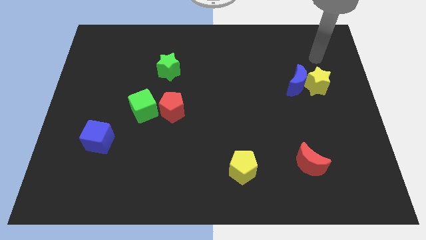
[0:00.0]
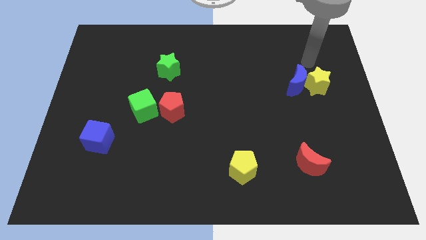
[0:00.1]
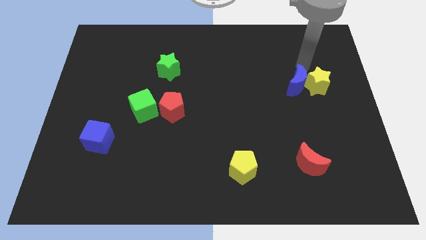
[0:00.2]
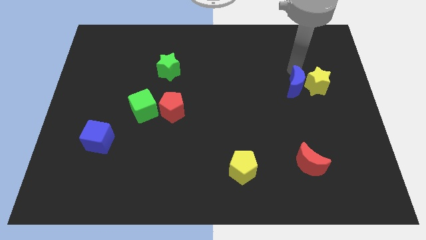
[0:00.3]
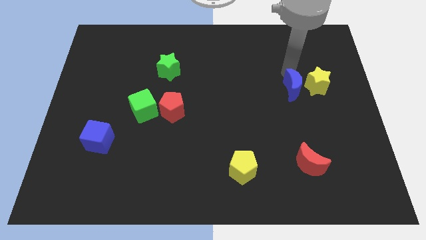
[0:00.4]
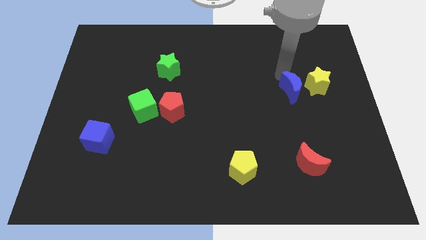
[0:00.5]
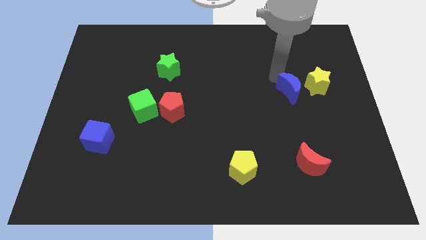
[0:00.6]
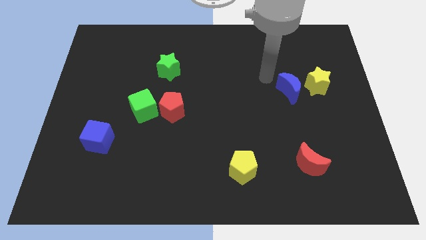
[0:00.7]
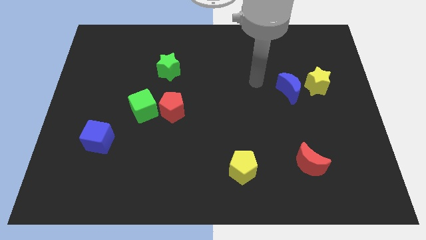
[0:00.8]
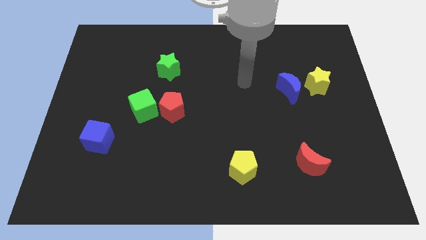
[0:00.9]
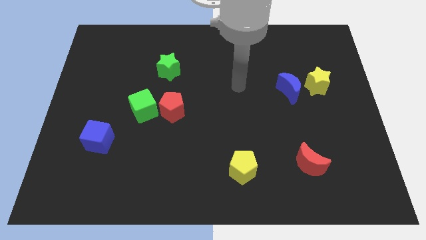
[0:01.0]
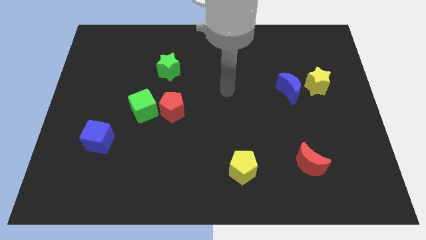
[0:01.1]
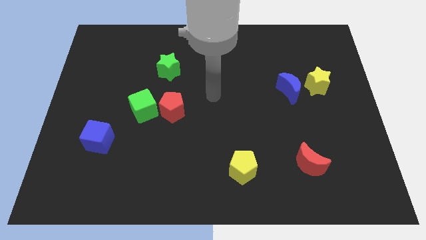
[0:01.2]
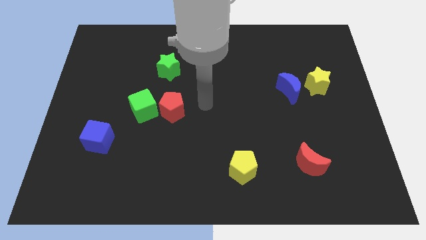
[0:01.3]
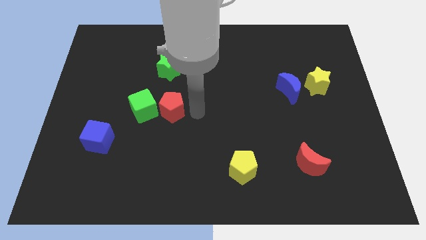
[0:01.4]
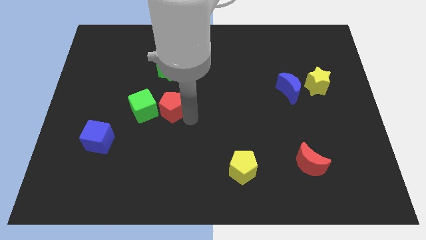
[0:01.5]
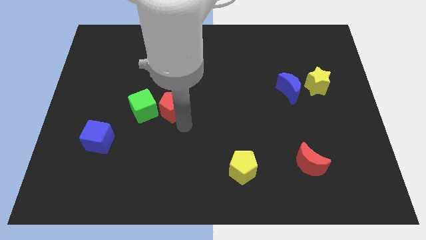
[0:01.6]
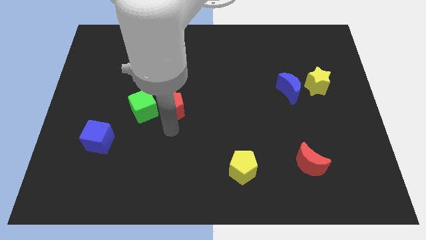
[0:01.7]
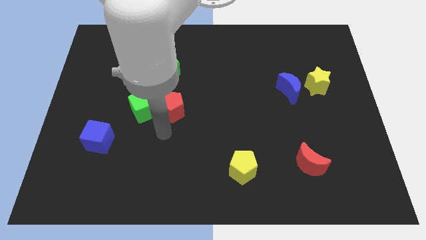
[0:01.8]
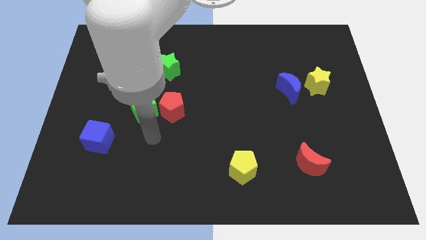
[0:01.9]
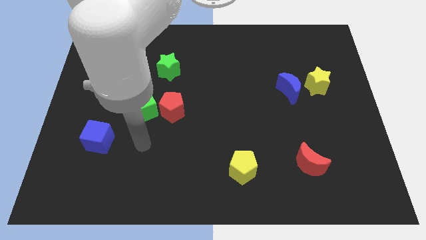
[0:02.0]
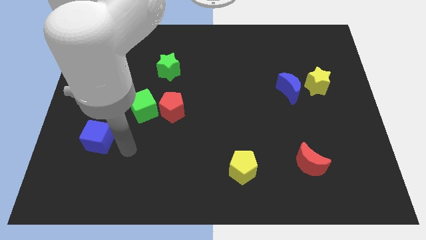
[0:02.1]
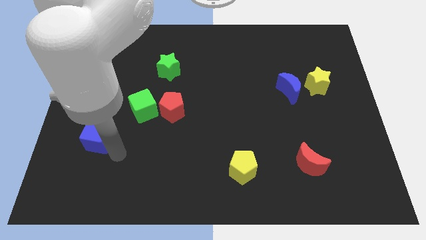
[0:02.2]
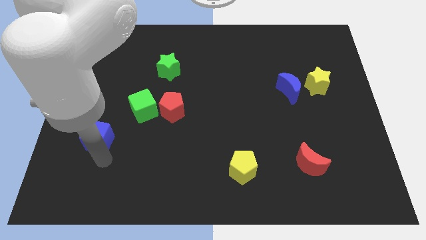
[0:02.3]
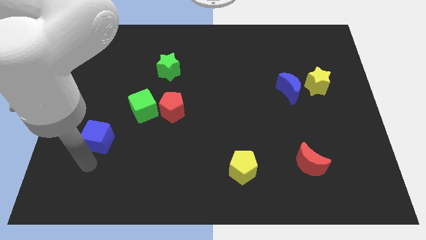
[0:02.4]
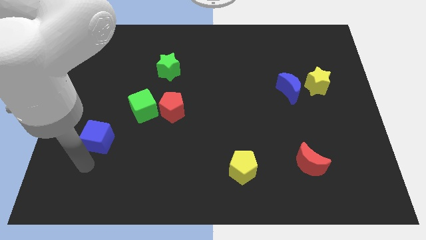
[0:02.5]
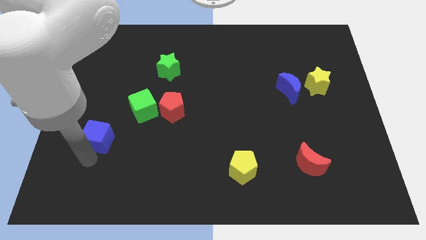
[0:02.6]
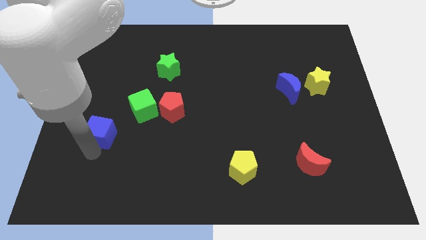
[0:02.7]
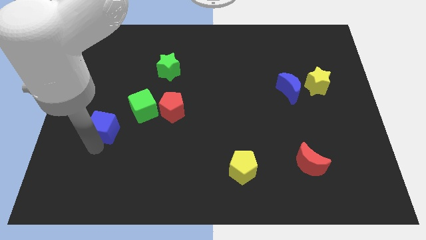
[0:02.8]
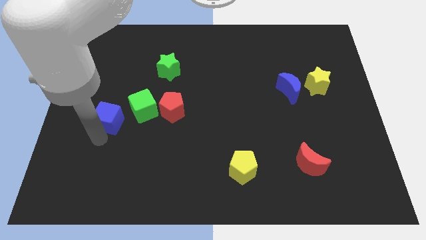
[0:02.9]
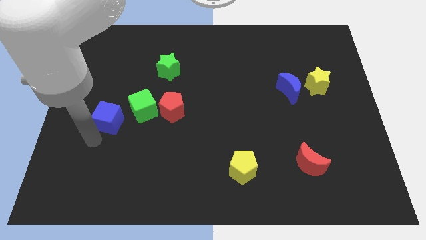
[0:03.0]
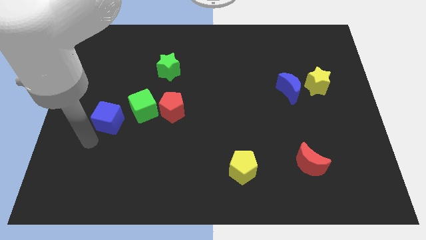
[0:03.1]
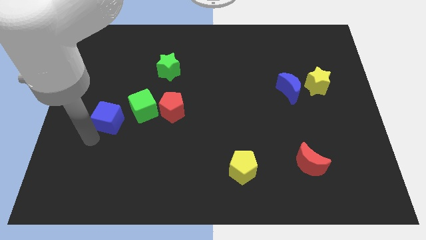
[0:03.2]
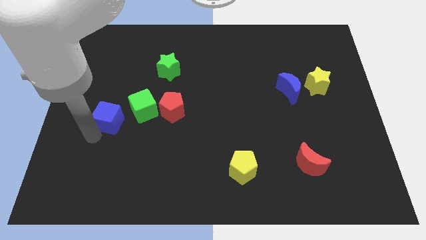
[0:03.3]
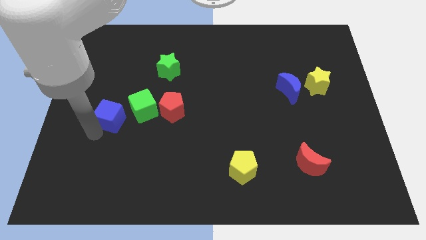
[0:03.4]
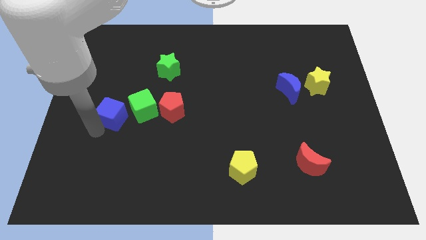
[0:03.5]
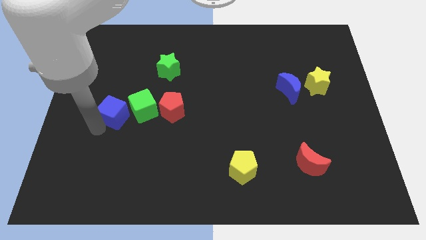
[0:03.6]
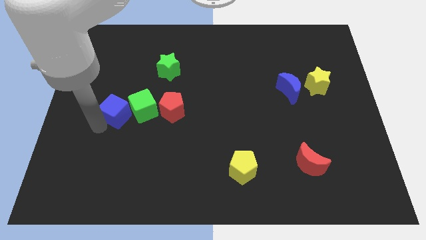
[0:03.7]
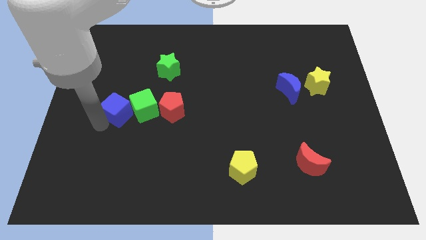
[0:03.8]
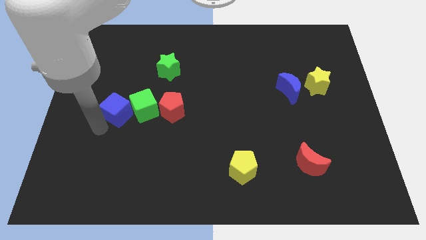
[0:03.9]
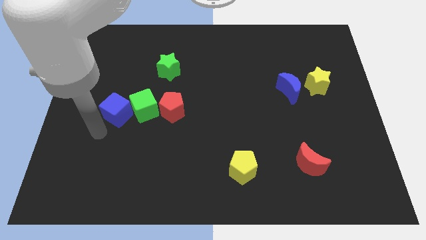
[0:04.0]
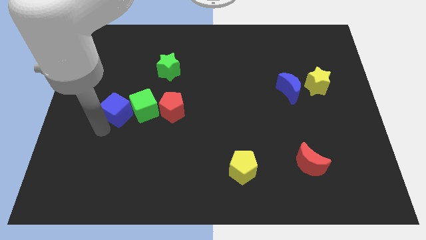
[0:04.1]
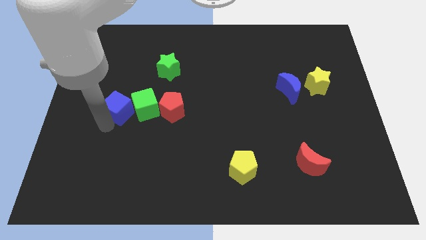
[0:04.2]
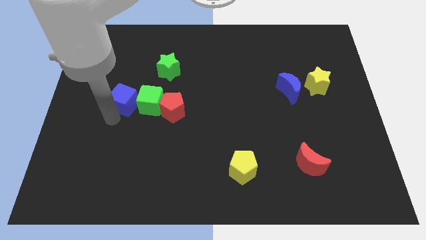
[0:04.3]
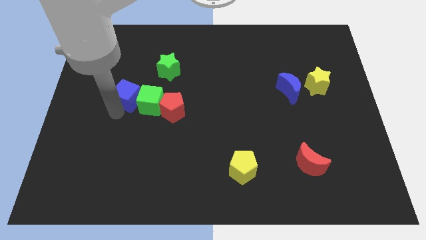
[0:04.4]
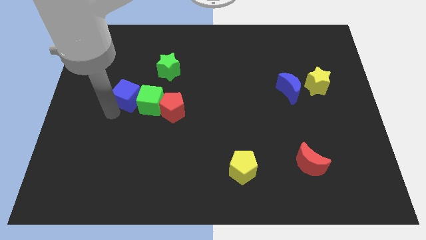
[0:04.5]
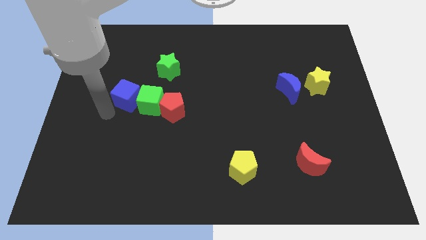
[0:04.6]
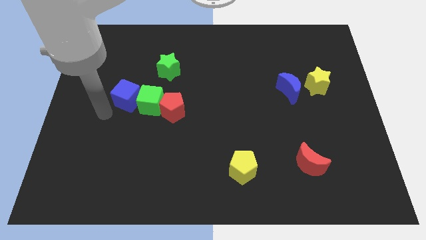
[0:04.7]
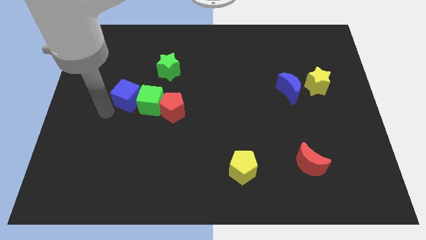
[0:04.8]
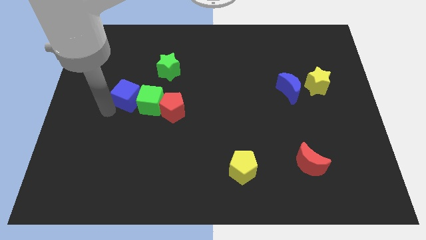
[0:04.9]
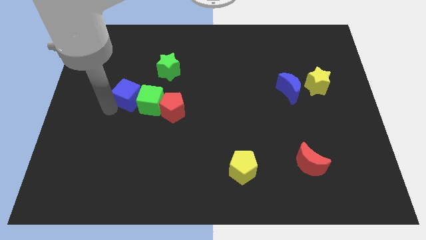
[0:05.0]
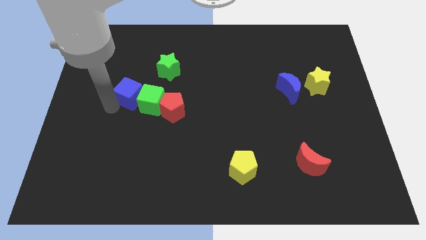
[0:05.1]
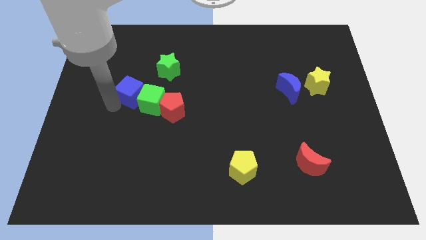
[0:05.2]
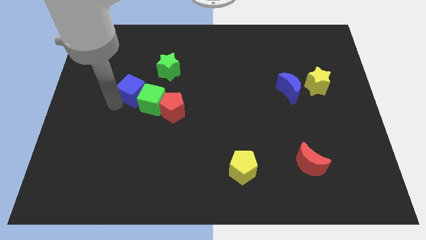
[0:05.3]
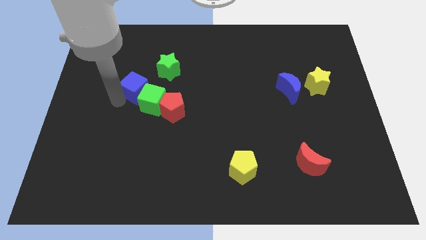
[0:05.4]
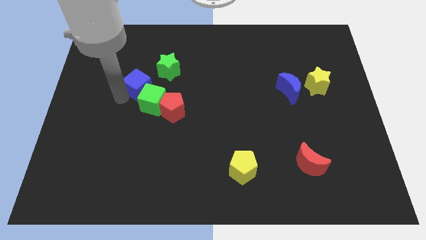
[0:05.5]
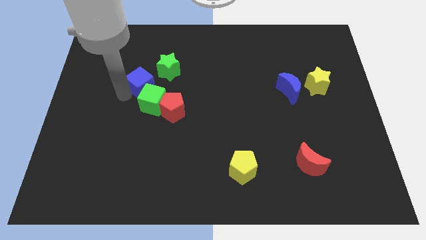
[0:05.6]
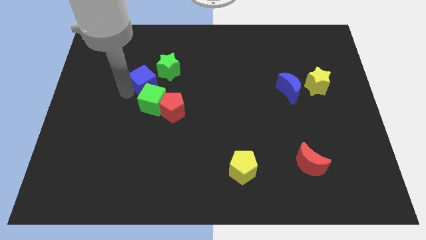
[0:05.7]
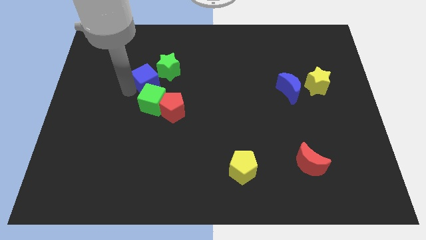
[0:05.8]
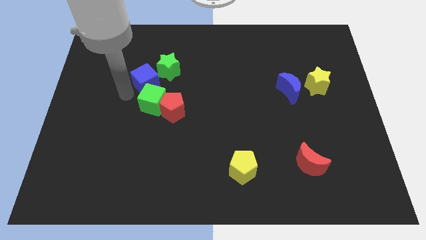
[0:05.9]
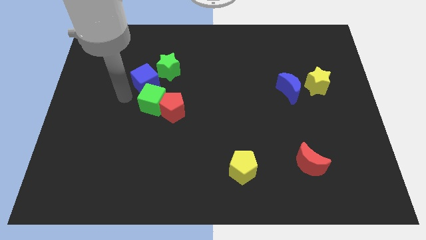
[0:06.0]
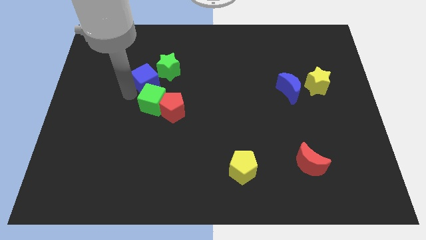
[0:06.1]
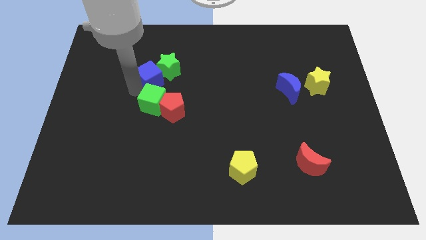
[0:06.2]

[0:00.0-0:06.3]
put the blue cube close to the green star

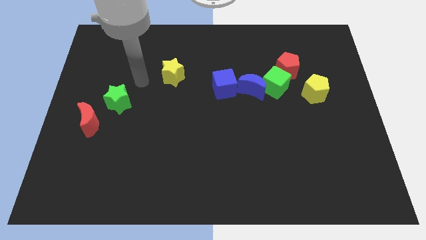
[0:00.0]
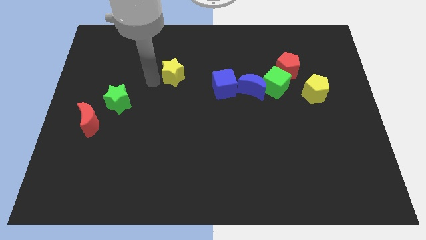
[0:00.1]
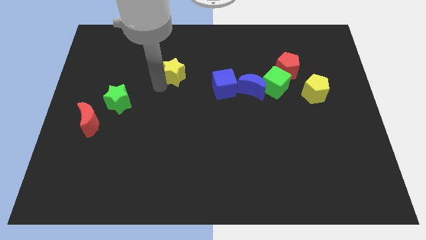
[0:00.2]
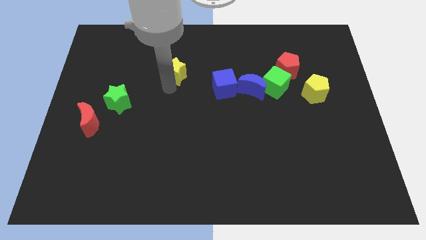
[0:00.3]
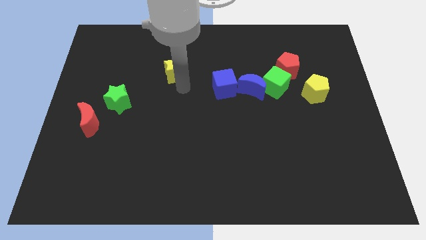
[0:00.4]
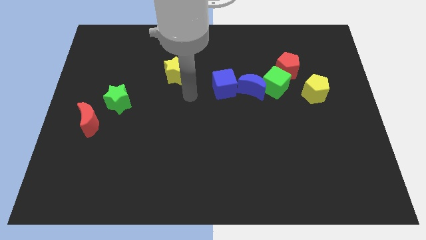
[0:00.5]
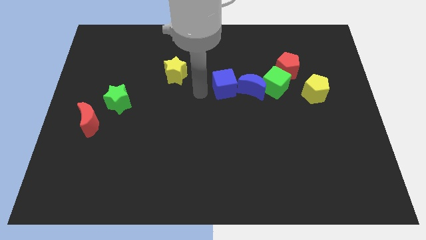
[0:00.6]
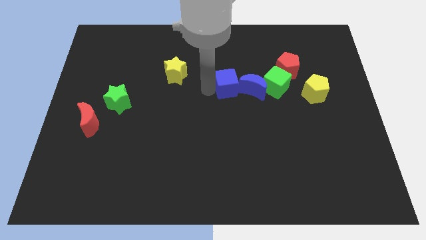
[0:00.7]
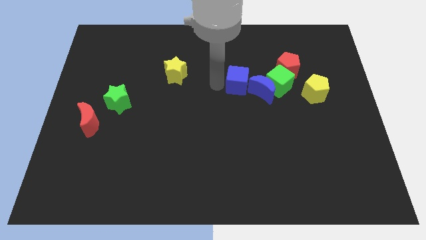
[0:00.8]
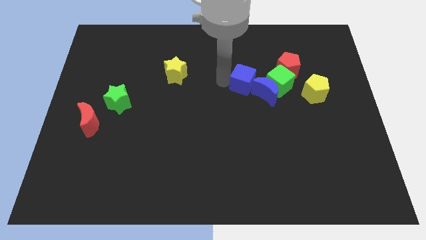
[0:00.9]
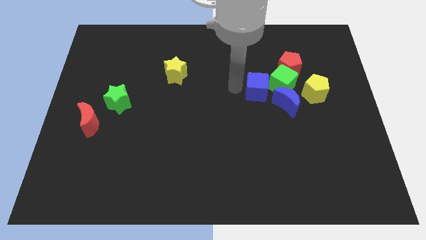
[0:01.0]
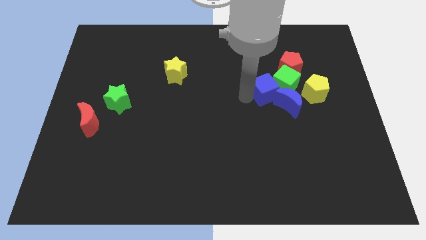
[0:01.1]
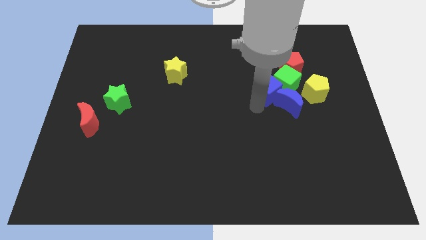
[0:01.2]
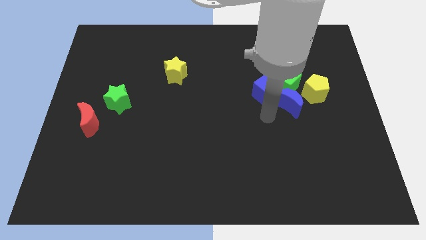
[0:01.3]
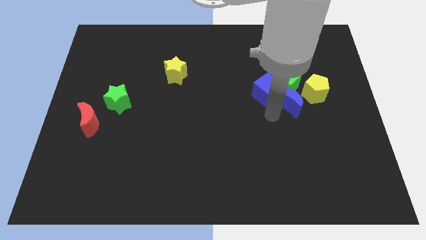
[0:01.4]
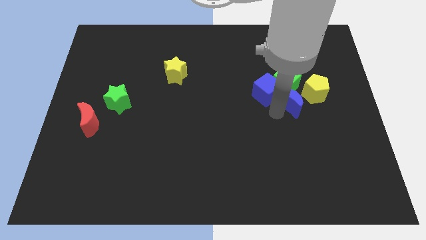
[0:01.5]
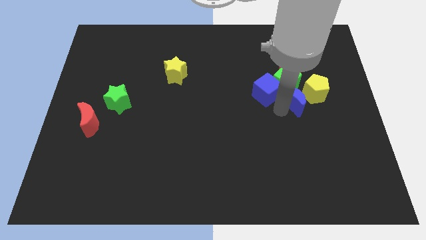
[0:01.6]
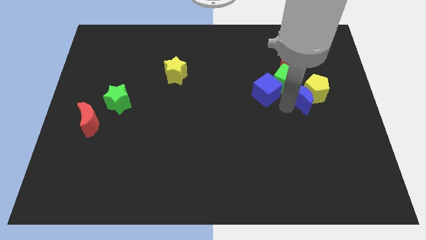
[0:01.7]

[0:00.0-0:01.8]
slide the blue moon towards the yellow pentagon
